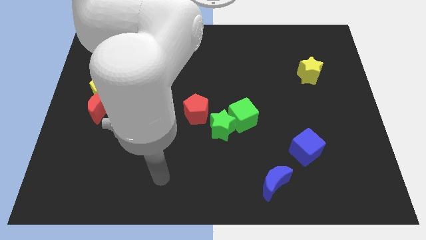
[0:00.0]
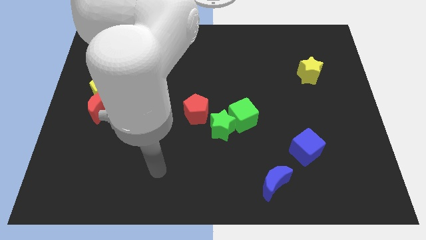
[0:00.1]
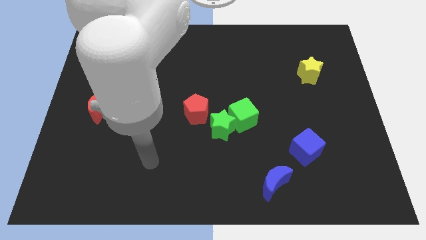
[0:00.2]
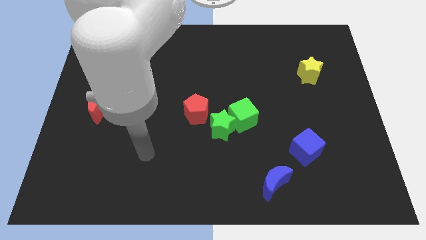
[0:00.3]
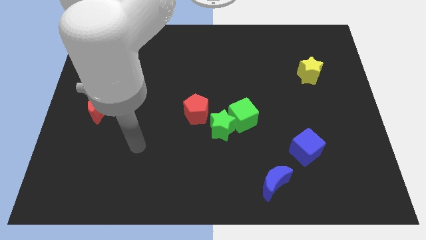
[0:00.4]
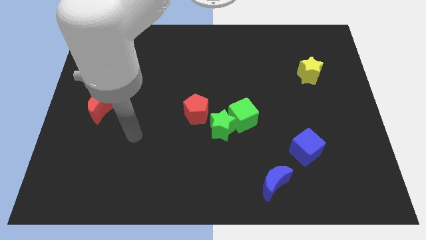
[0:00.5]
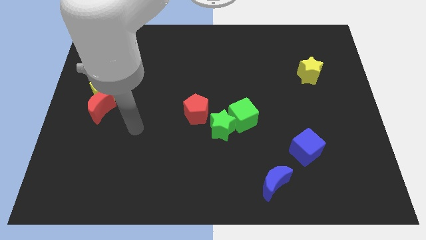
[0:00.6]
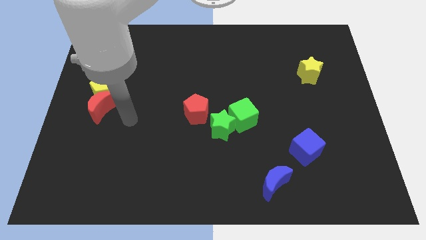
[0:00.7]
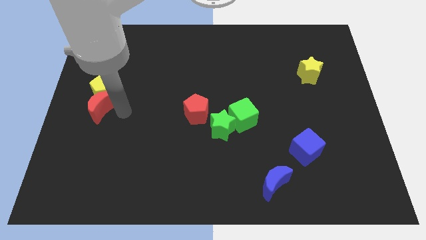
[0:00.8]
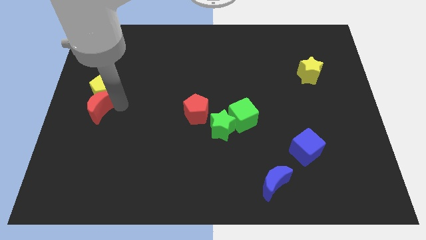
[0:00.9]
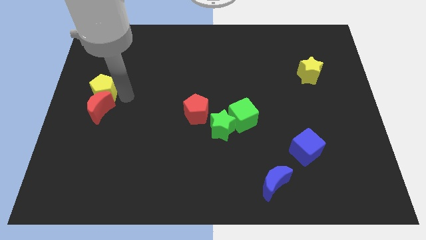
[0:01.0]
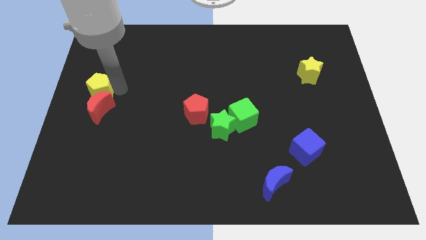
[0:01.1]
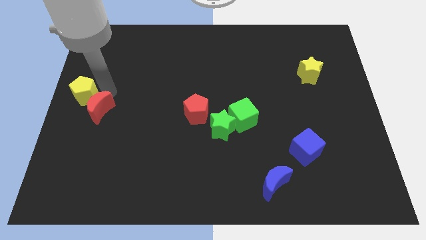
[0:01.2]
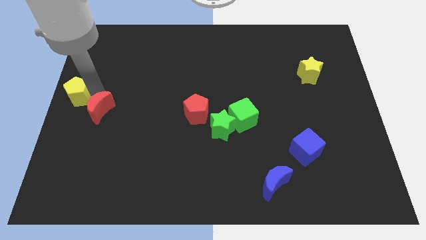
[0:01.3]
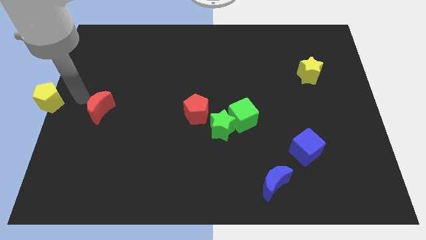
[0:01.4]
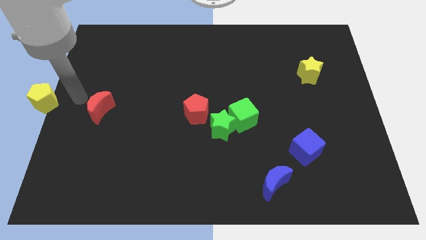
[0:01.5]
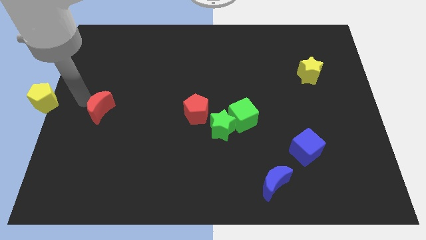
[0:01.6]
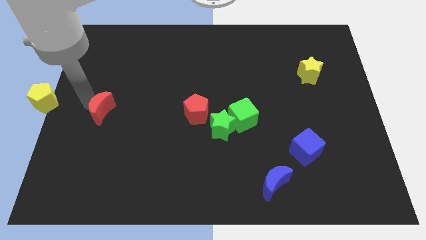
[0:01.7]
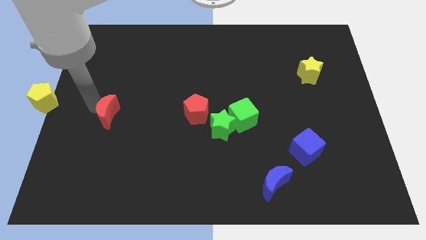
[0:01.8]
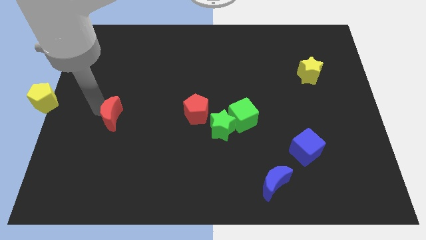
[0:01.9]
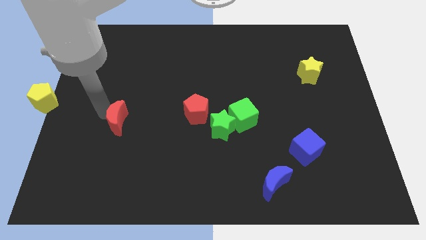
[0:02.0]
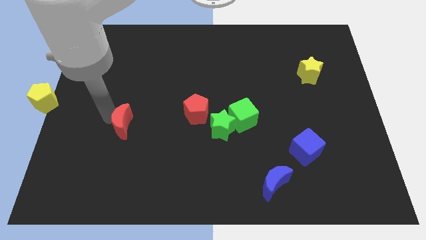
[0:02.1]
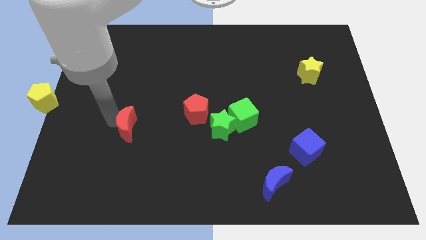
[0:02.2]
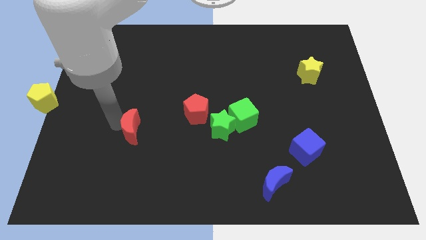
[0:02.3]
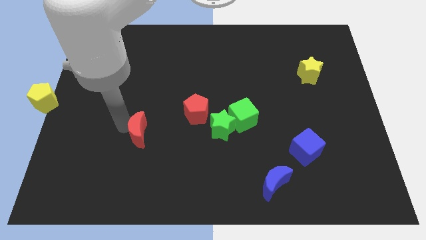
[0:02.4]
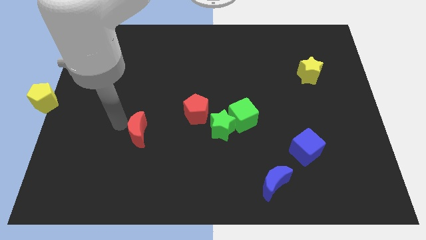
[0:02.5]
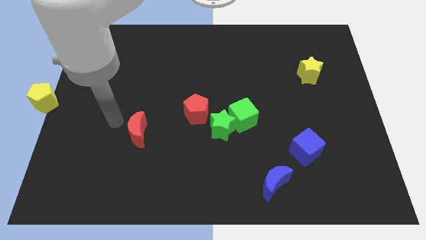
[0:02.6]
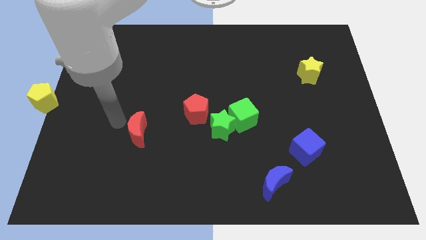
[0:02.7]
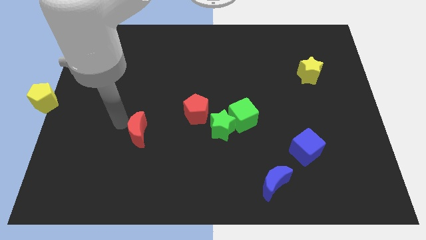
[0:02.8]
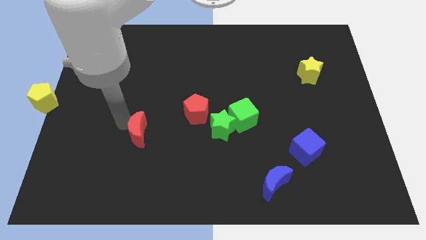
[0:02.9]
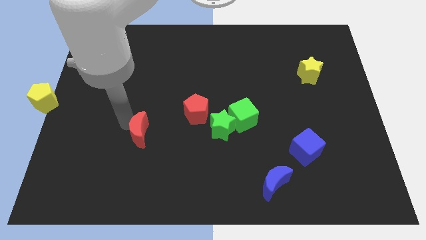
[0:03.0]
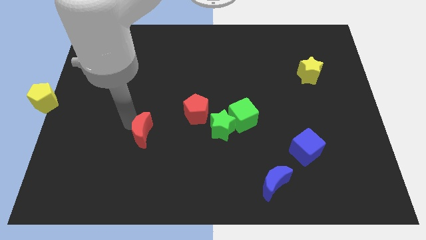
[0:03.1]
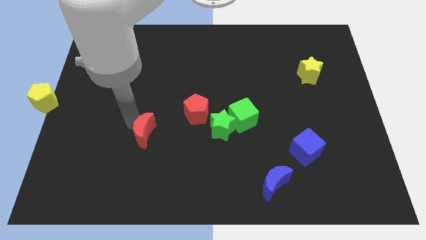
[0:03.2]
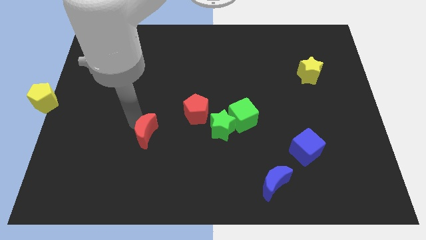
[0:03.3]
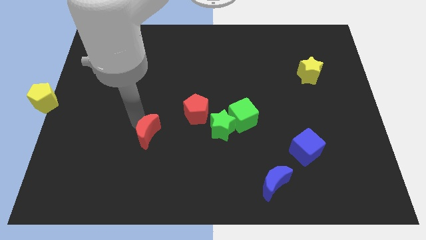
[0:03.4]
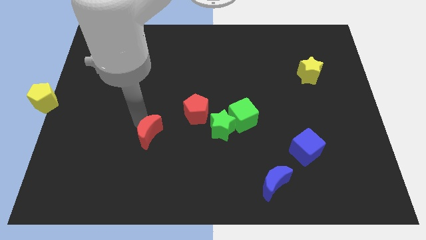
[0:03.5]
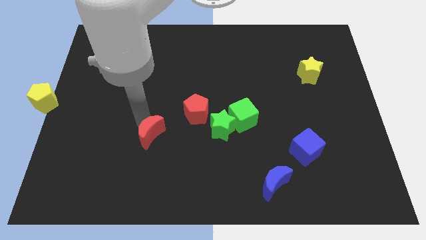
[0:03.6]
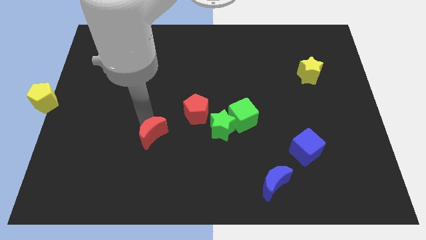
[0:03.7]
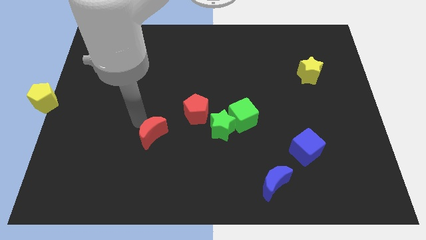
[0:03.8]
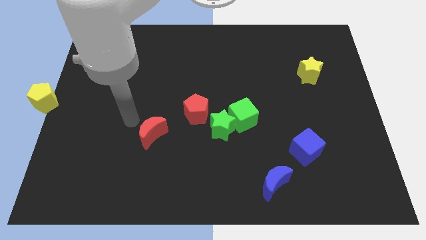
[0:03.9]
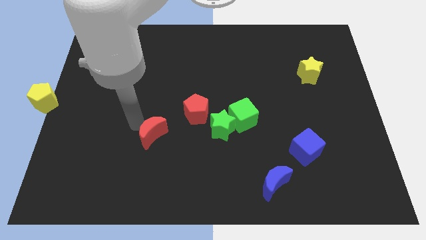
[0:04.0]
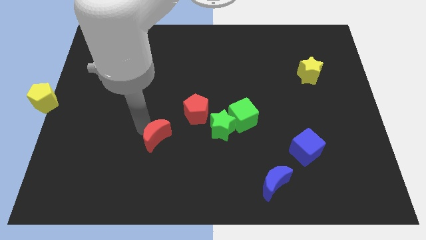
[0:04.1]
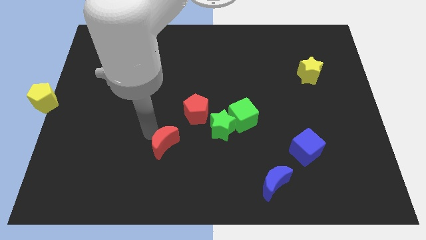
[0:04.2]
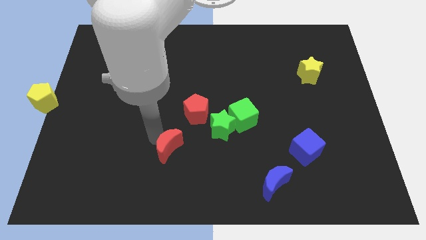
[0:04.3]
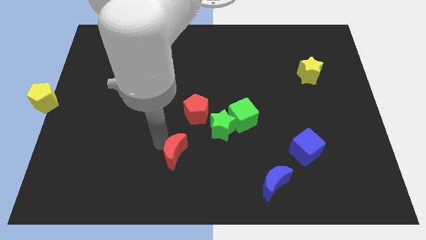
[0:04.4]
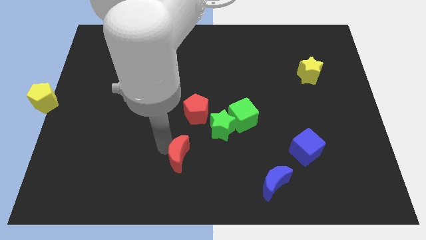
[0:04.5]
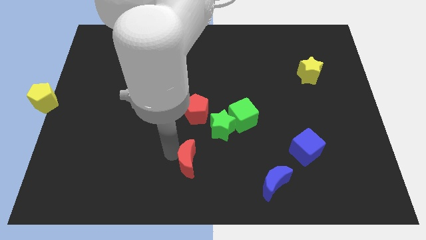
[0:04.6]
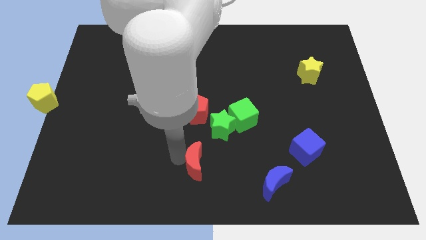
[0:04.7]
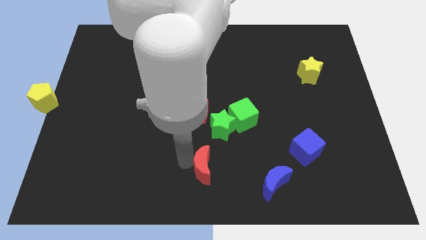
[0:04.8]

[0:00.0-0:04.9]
move the red moon to the bottom side of the green star

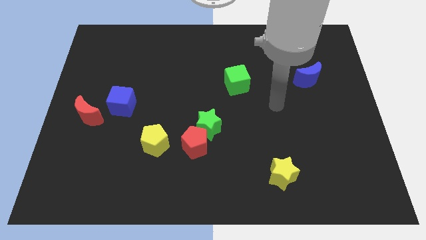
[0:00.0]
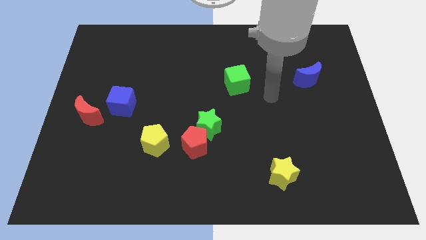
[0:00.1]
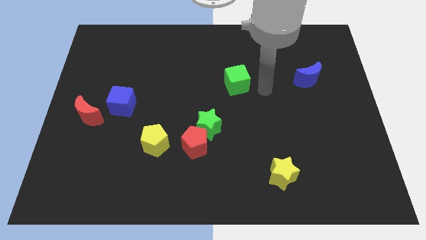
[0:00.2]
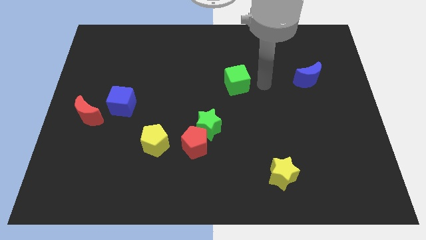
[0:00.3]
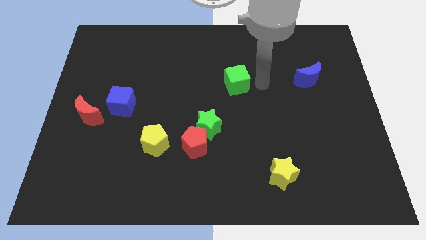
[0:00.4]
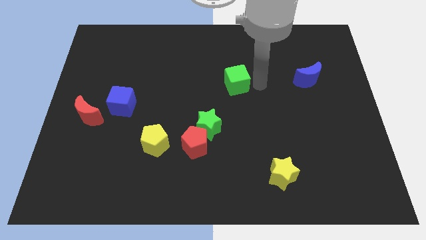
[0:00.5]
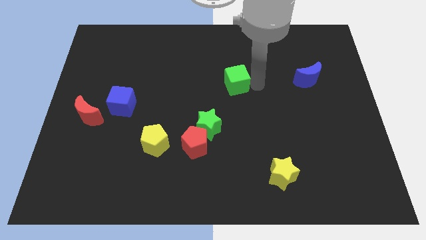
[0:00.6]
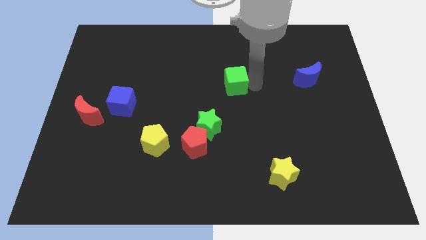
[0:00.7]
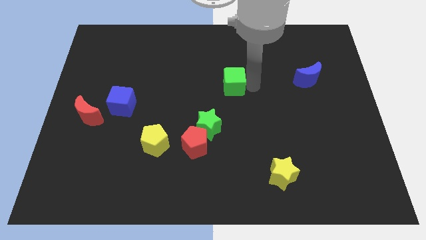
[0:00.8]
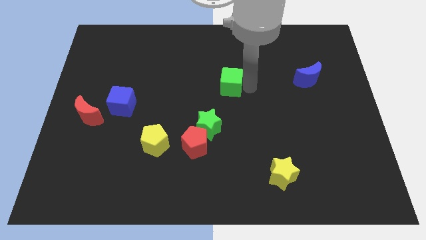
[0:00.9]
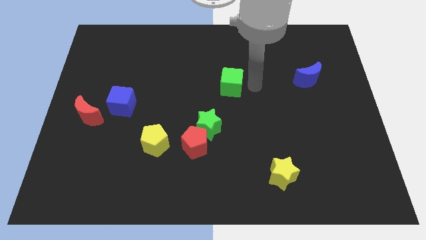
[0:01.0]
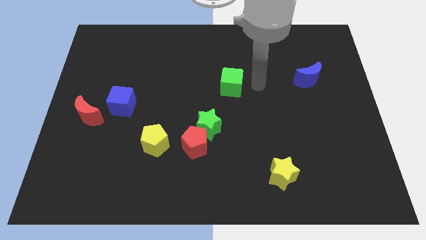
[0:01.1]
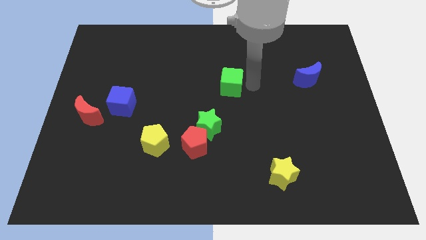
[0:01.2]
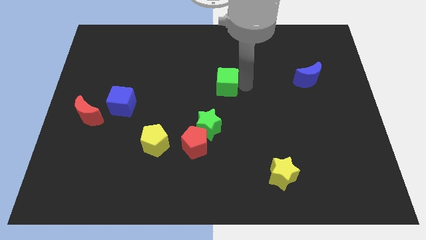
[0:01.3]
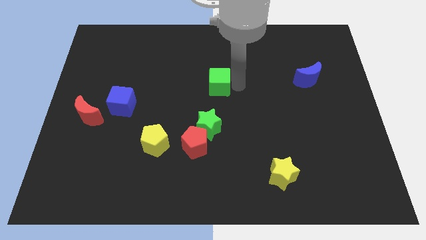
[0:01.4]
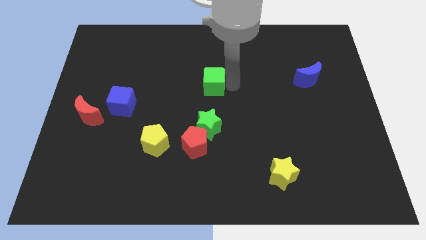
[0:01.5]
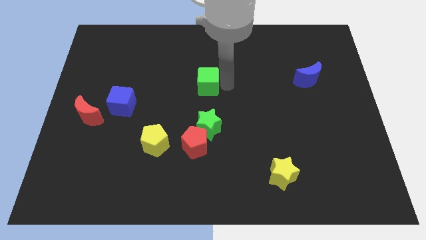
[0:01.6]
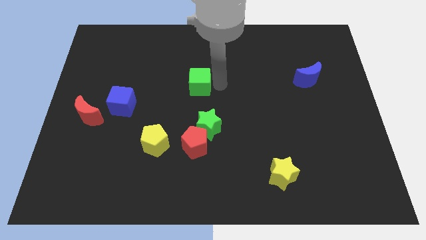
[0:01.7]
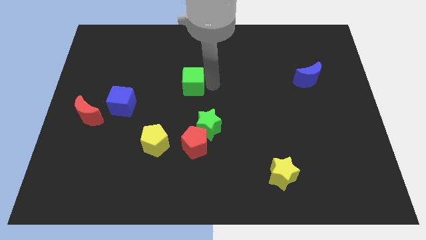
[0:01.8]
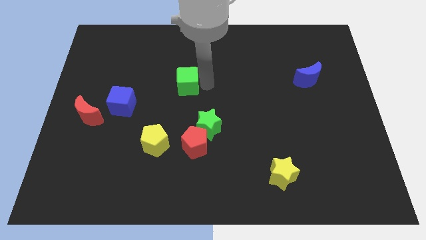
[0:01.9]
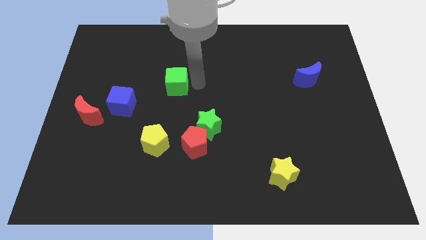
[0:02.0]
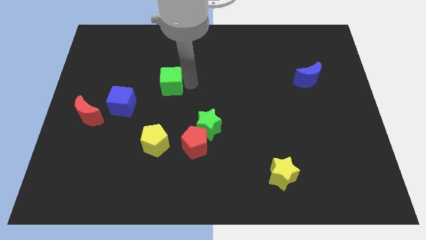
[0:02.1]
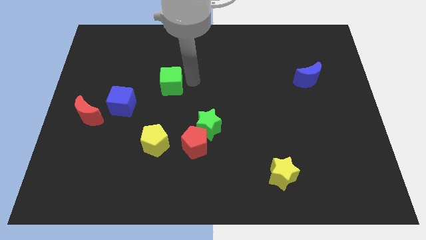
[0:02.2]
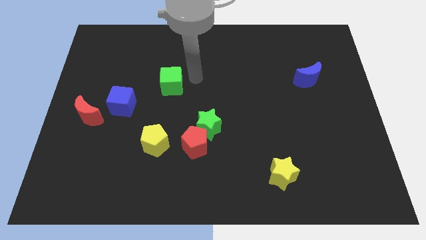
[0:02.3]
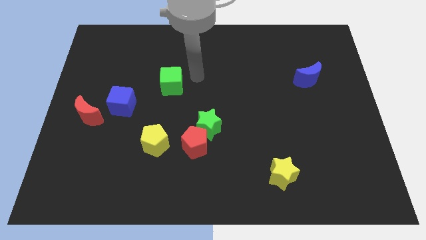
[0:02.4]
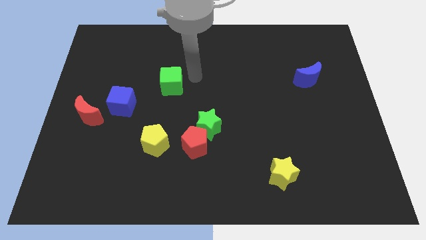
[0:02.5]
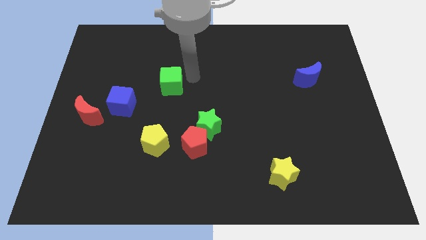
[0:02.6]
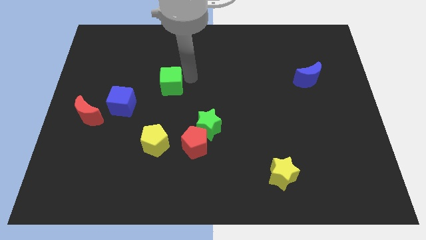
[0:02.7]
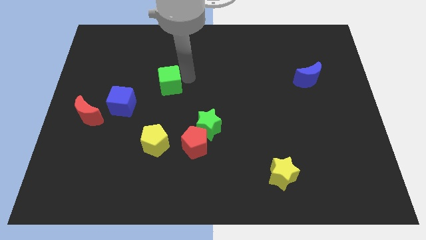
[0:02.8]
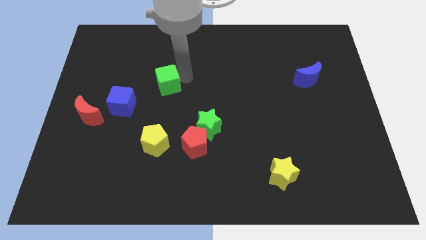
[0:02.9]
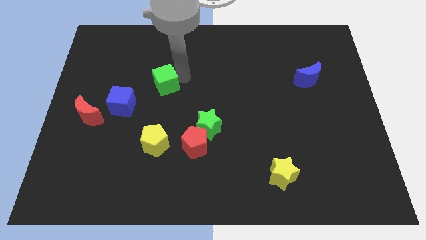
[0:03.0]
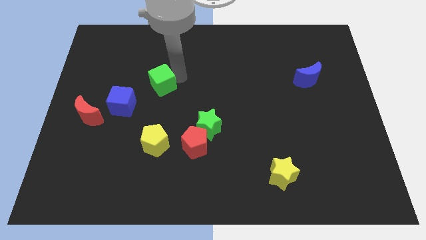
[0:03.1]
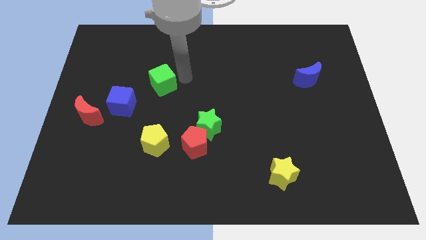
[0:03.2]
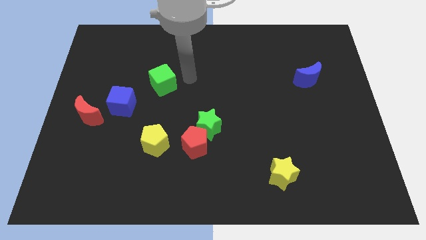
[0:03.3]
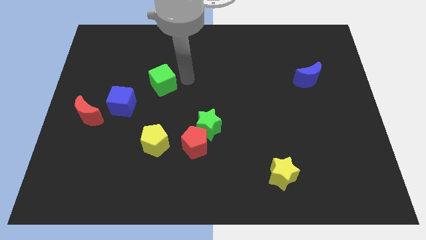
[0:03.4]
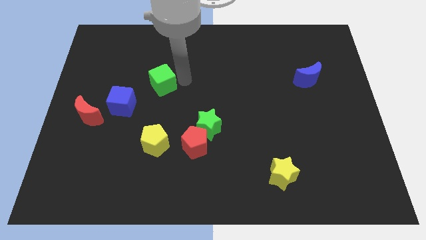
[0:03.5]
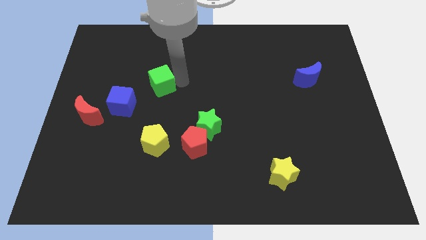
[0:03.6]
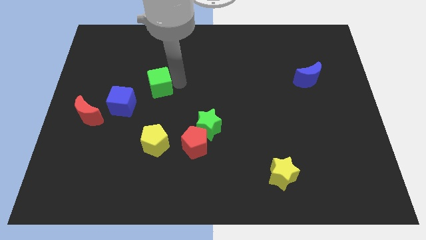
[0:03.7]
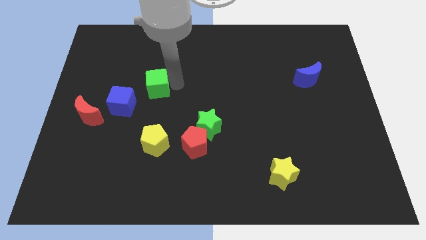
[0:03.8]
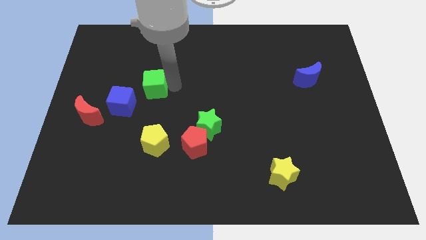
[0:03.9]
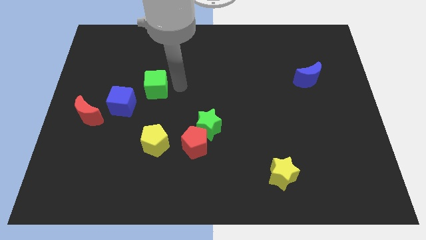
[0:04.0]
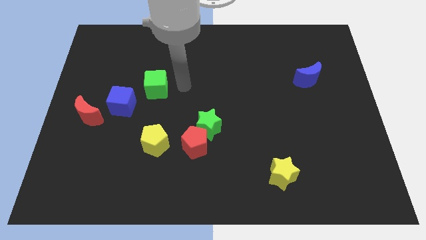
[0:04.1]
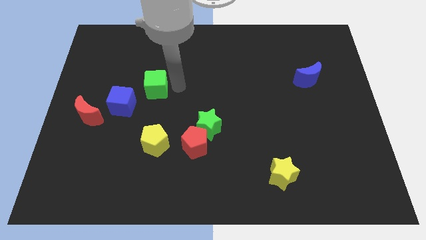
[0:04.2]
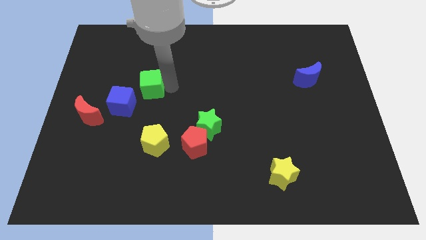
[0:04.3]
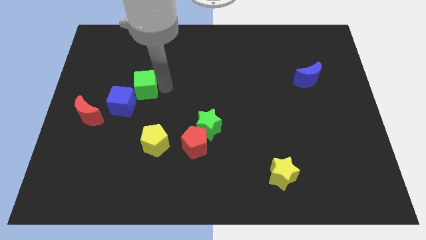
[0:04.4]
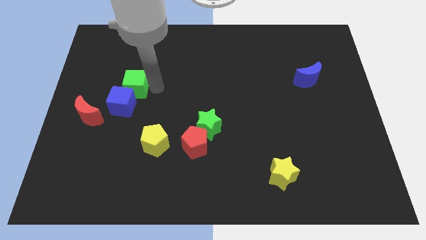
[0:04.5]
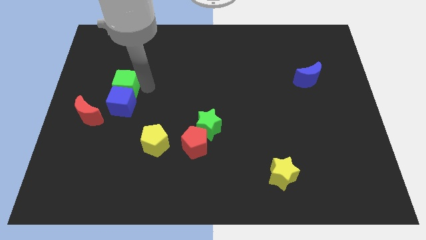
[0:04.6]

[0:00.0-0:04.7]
put the green cube to the top left of the blue cube
